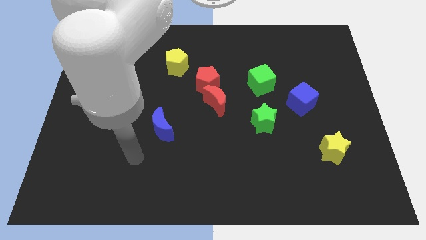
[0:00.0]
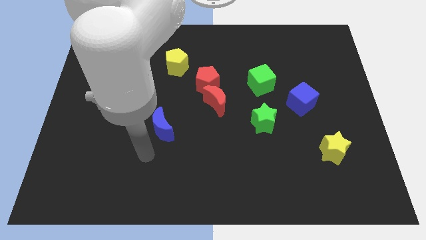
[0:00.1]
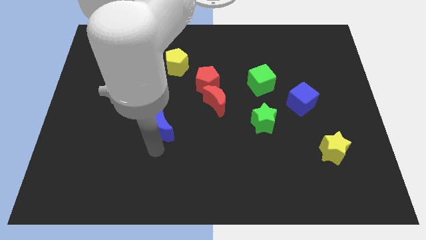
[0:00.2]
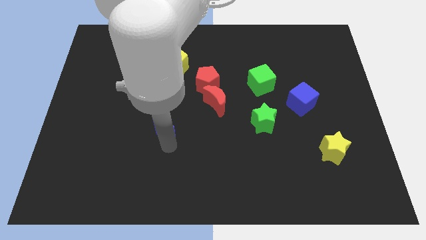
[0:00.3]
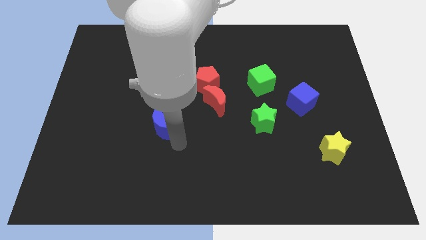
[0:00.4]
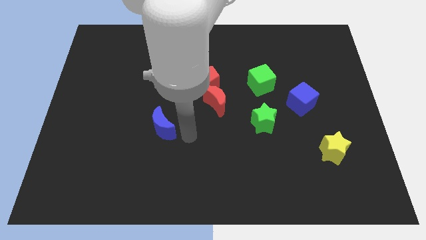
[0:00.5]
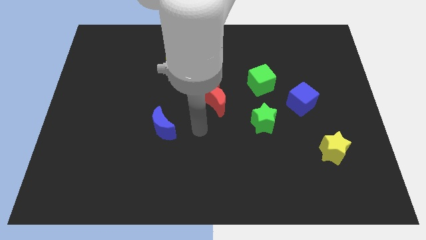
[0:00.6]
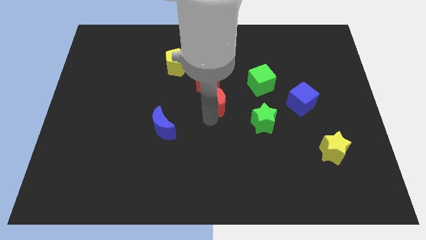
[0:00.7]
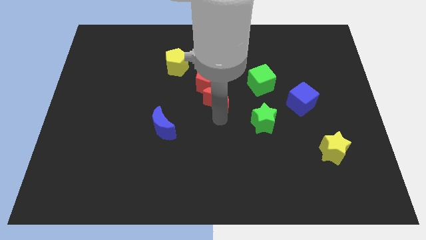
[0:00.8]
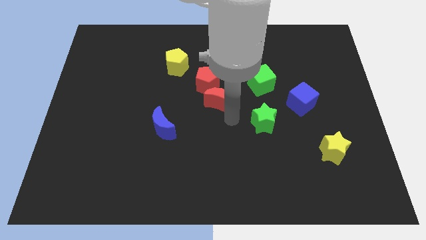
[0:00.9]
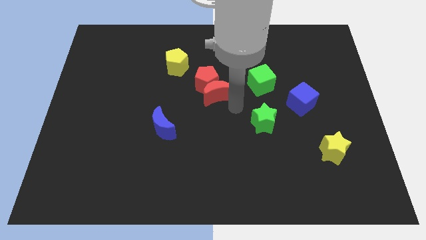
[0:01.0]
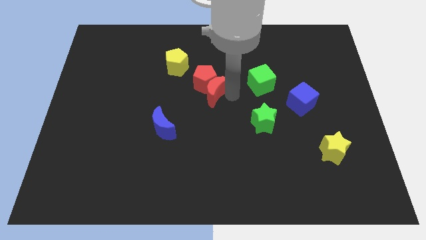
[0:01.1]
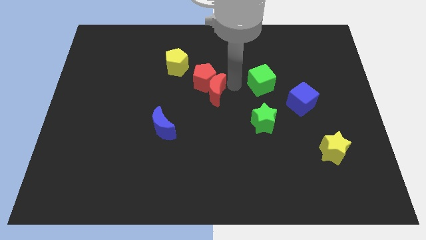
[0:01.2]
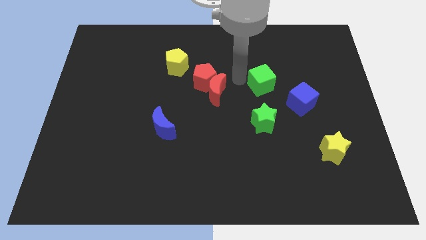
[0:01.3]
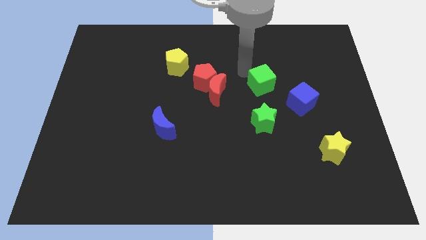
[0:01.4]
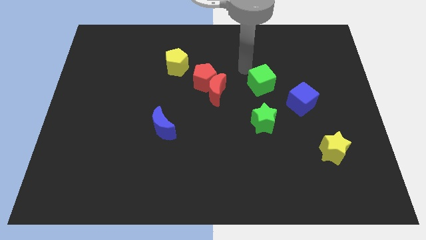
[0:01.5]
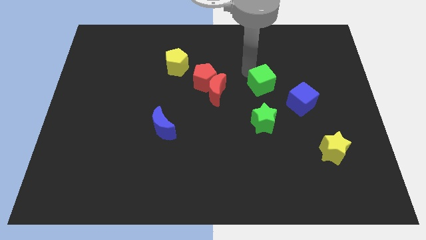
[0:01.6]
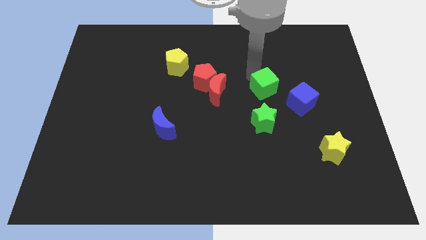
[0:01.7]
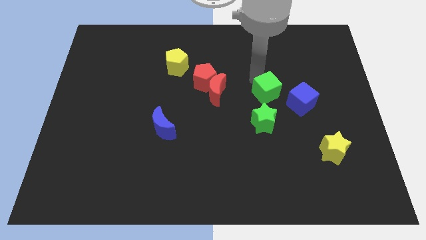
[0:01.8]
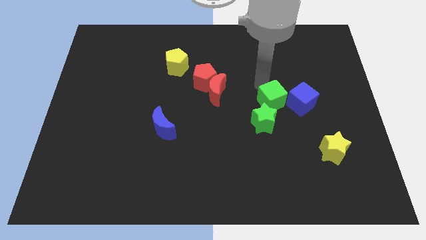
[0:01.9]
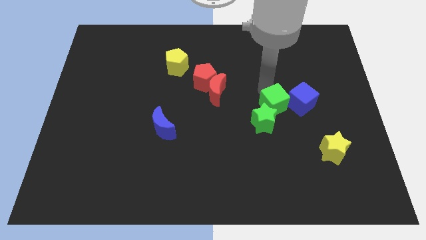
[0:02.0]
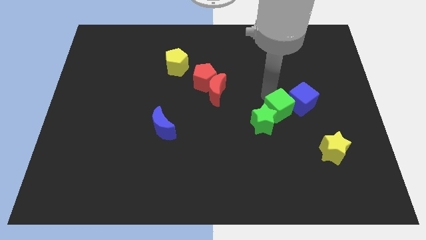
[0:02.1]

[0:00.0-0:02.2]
slightly slide the green cube down and then right

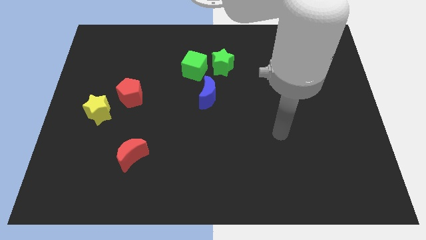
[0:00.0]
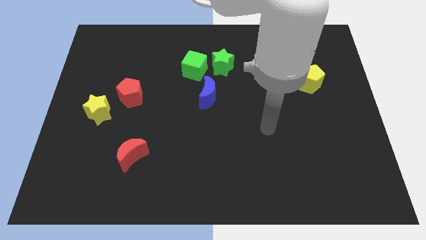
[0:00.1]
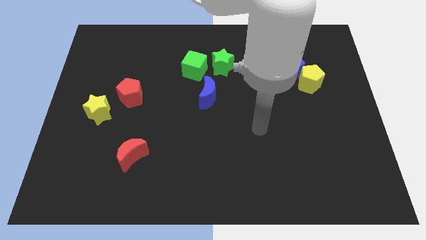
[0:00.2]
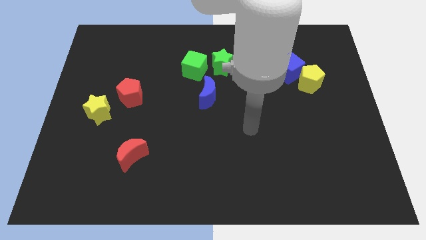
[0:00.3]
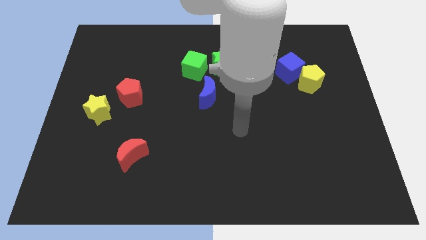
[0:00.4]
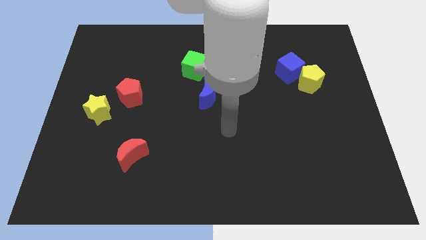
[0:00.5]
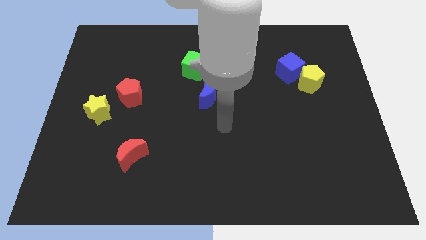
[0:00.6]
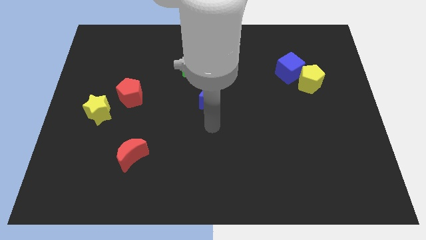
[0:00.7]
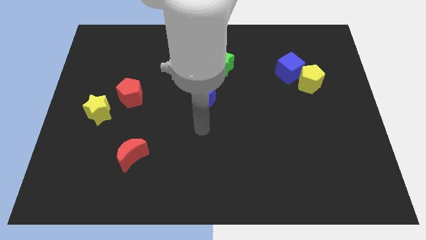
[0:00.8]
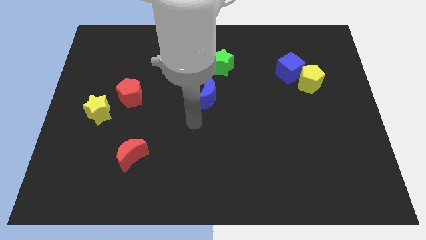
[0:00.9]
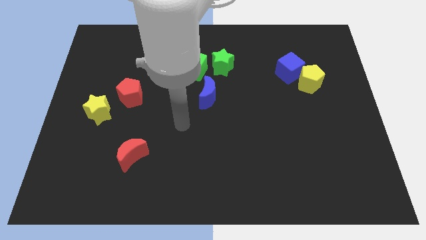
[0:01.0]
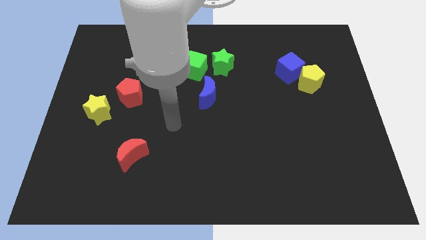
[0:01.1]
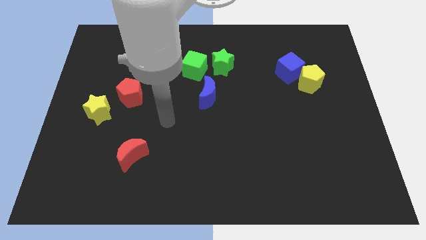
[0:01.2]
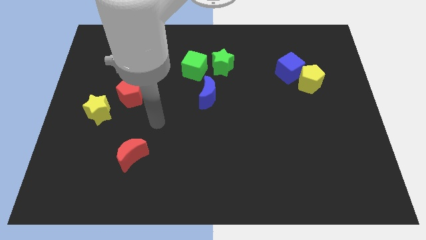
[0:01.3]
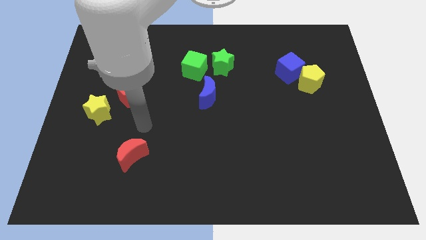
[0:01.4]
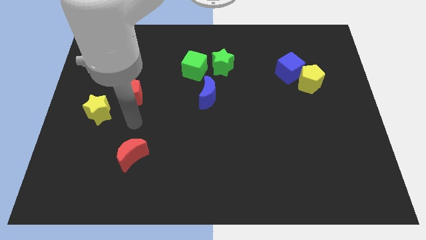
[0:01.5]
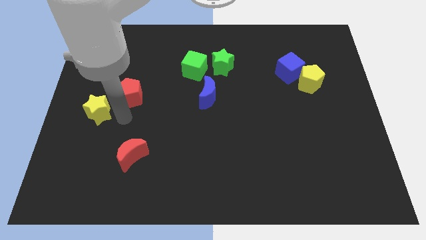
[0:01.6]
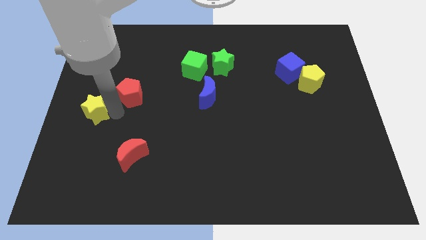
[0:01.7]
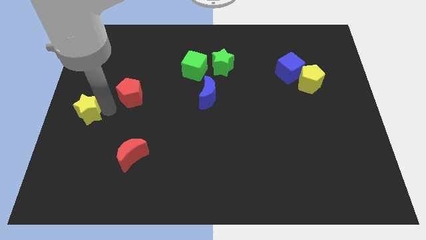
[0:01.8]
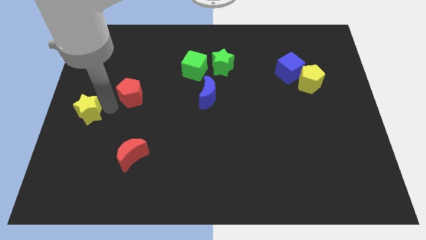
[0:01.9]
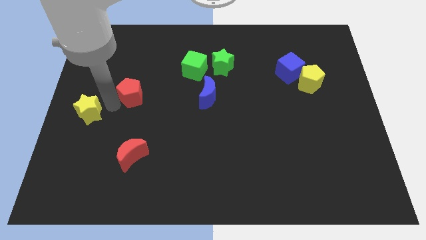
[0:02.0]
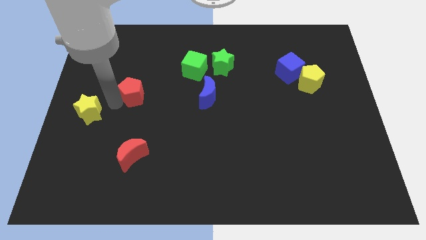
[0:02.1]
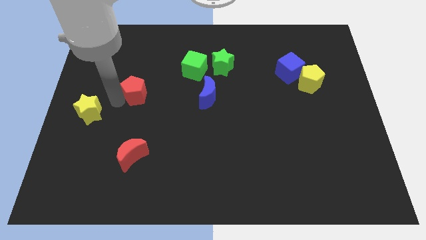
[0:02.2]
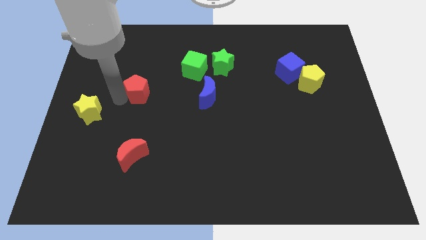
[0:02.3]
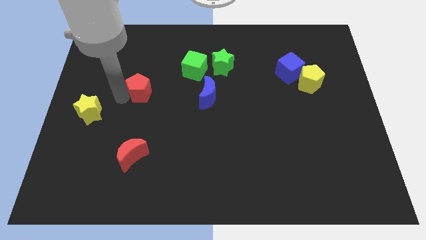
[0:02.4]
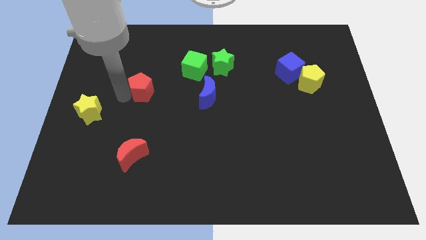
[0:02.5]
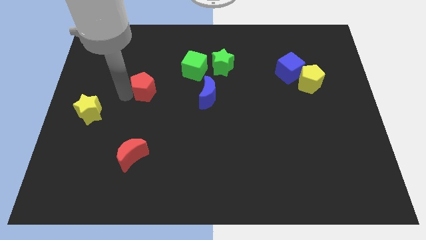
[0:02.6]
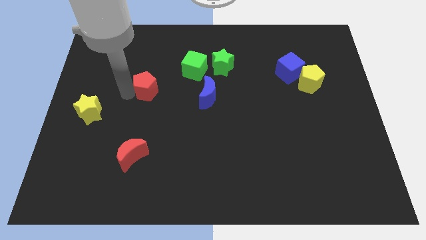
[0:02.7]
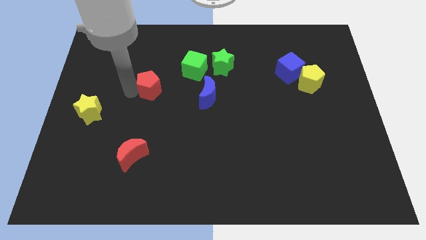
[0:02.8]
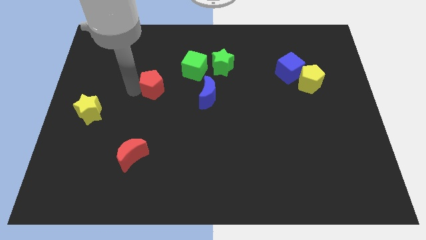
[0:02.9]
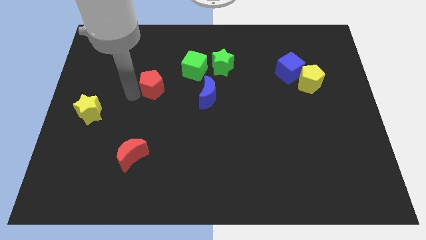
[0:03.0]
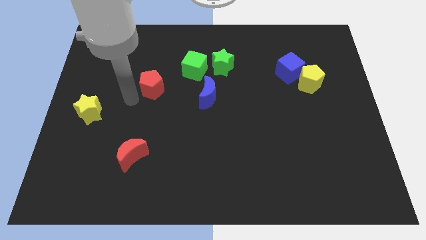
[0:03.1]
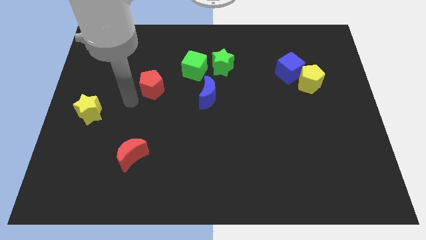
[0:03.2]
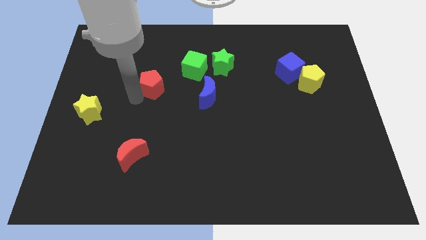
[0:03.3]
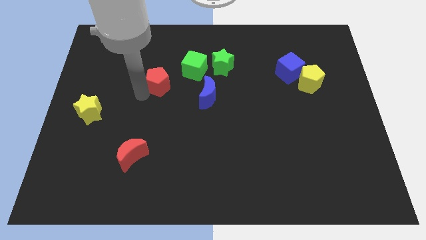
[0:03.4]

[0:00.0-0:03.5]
push the red pentagon up and right a little

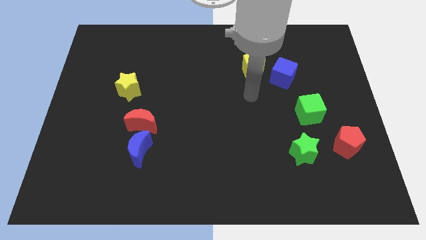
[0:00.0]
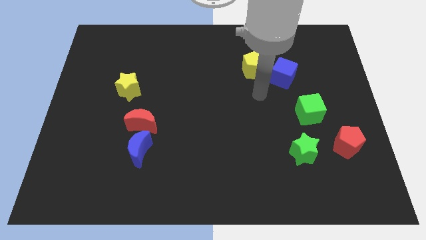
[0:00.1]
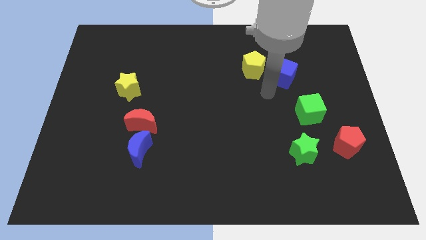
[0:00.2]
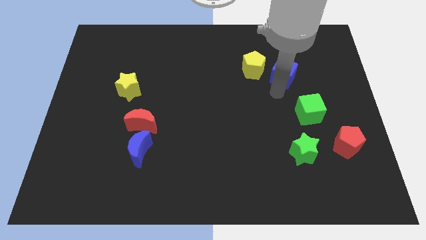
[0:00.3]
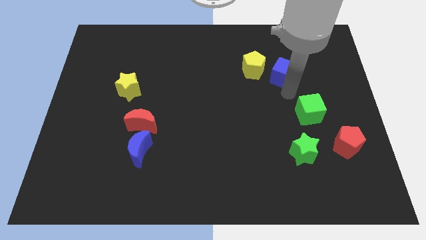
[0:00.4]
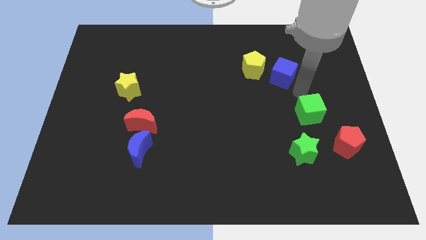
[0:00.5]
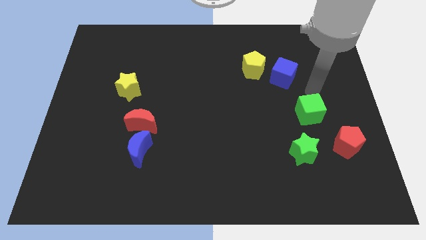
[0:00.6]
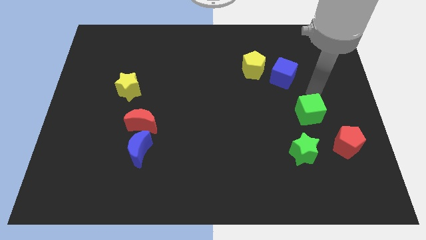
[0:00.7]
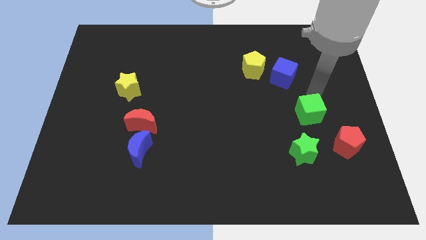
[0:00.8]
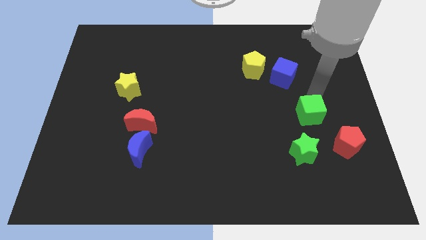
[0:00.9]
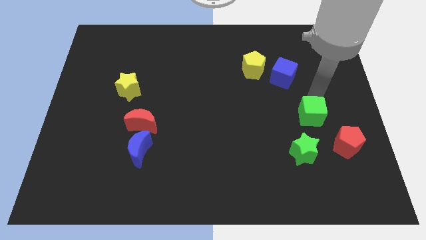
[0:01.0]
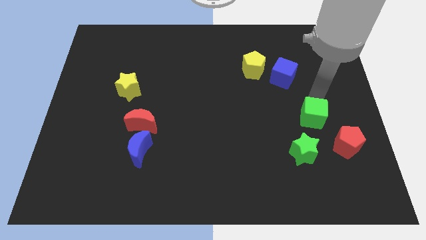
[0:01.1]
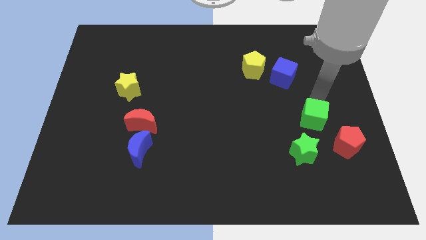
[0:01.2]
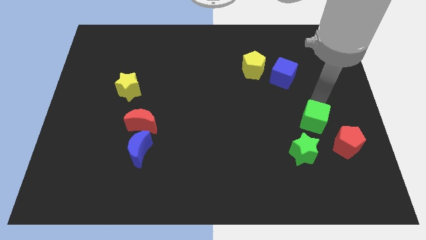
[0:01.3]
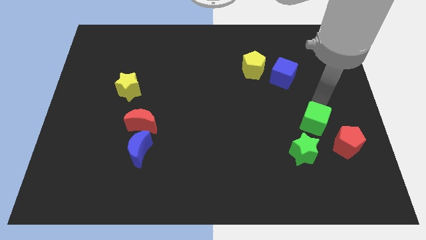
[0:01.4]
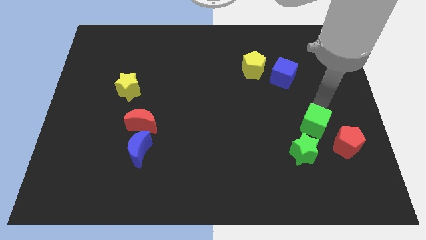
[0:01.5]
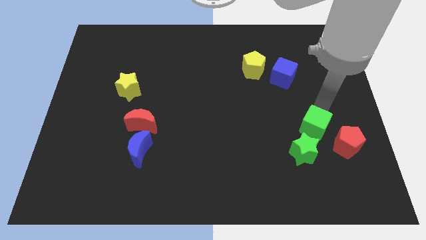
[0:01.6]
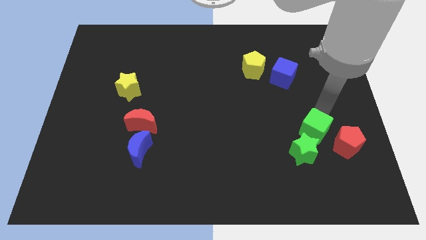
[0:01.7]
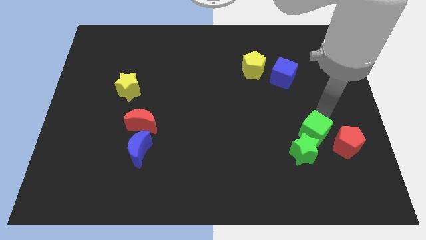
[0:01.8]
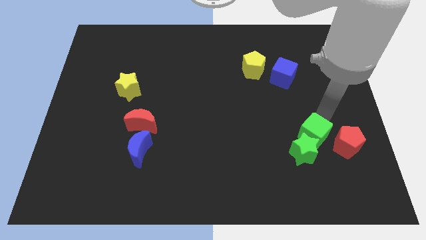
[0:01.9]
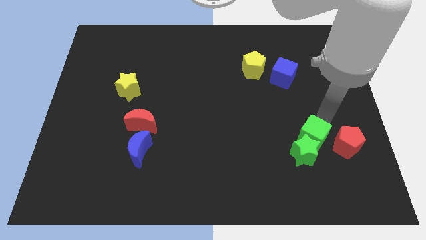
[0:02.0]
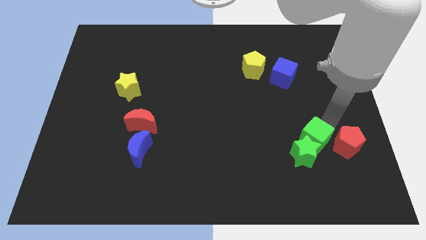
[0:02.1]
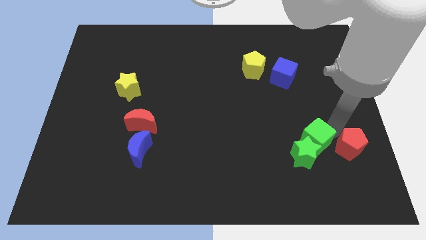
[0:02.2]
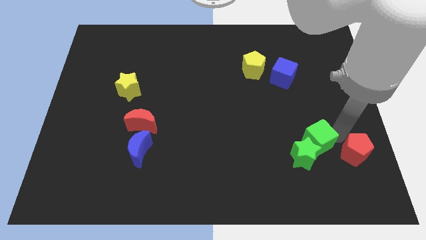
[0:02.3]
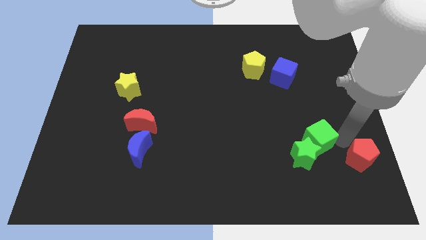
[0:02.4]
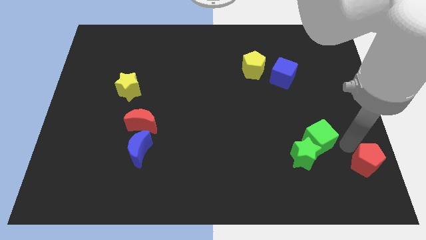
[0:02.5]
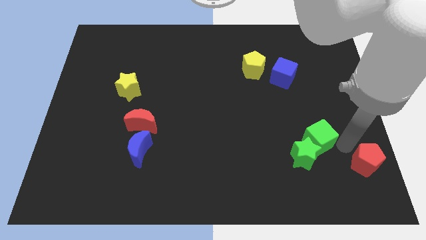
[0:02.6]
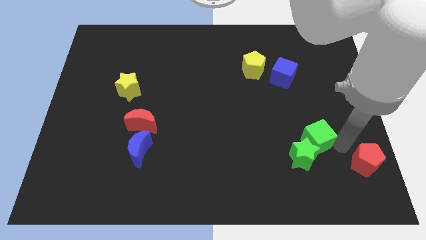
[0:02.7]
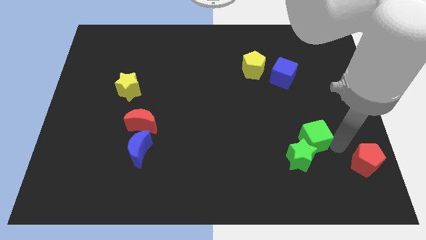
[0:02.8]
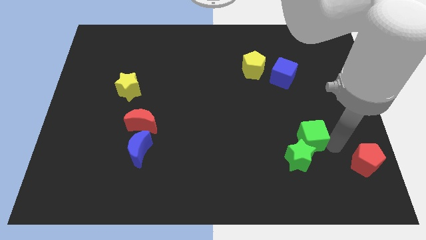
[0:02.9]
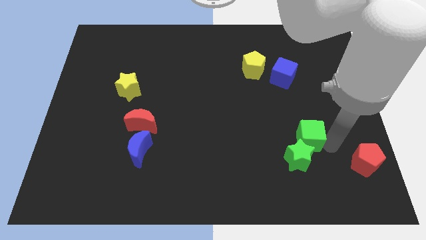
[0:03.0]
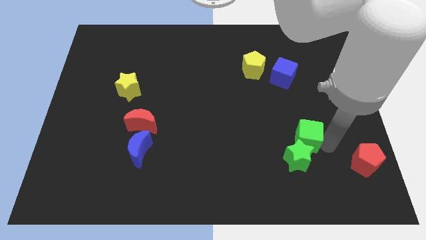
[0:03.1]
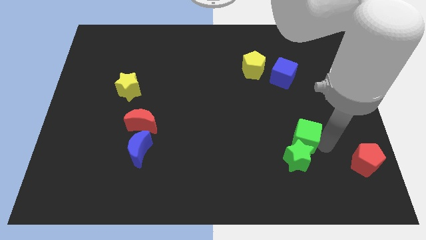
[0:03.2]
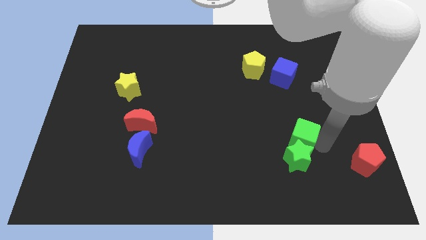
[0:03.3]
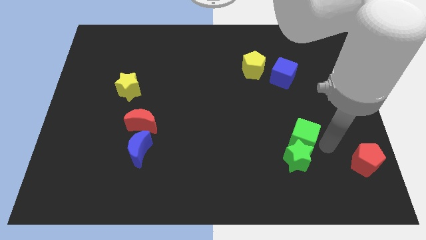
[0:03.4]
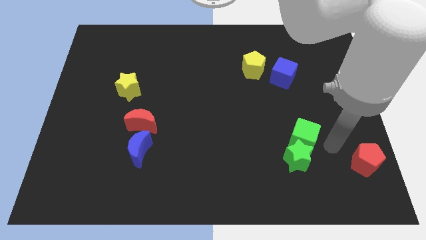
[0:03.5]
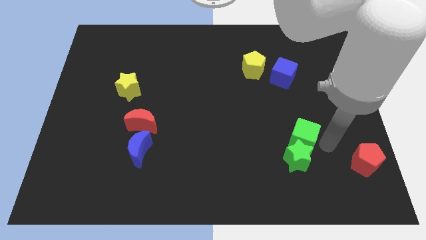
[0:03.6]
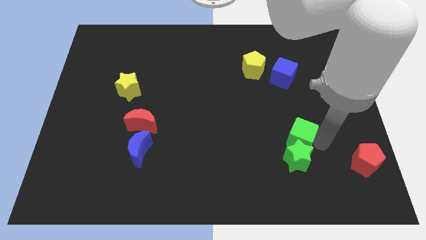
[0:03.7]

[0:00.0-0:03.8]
slide the green cube slightly down and then left
